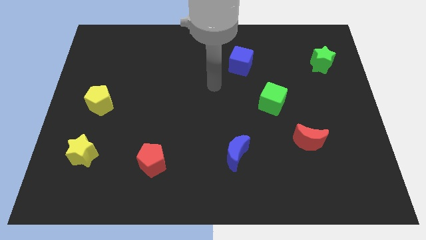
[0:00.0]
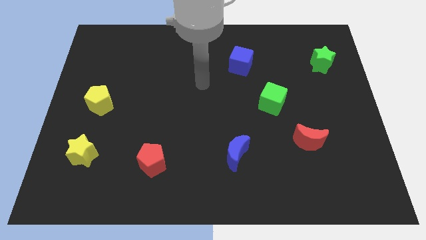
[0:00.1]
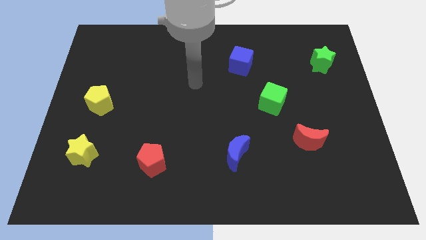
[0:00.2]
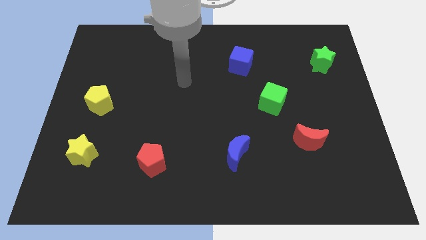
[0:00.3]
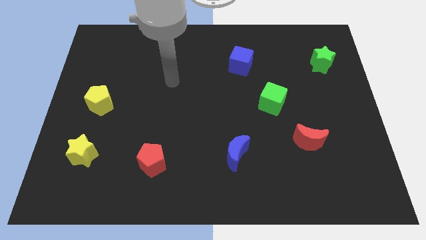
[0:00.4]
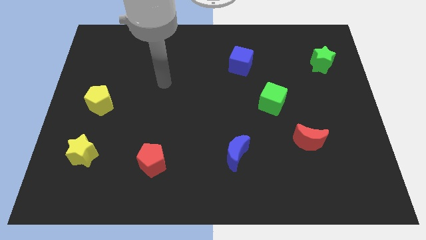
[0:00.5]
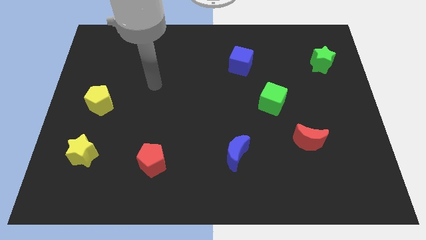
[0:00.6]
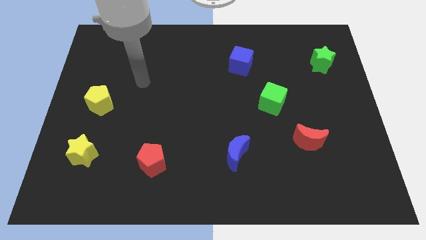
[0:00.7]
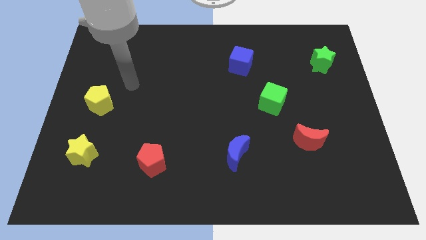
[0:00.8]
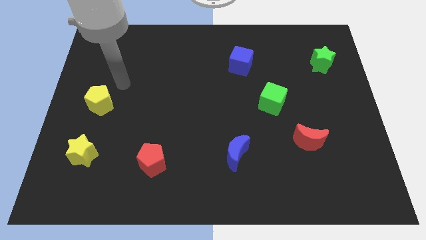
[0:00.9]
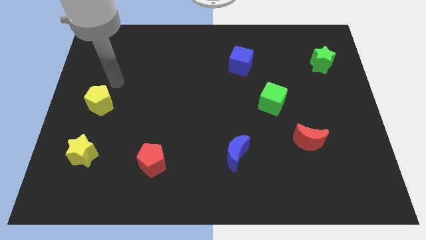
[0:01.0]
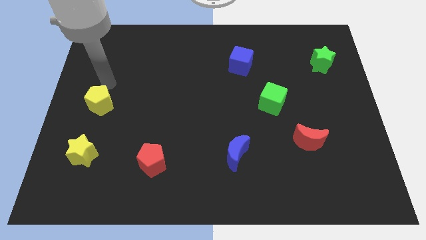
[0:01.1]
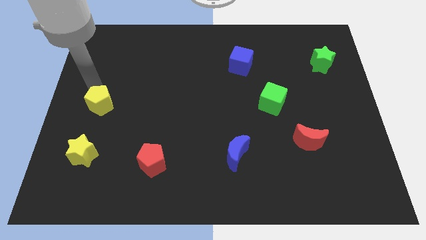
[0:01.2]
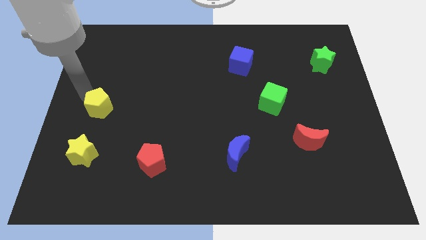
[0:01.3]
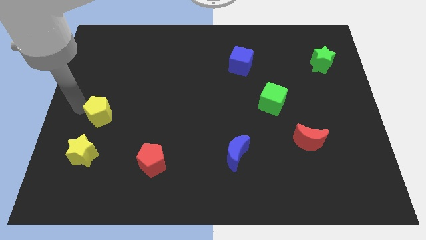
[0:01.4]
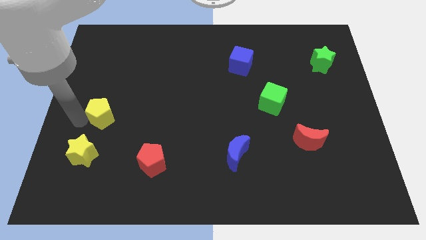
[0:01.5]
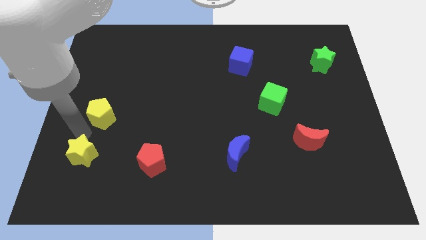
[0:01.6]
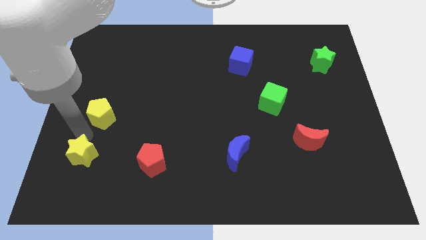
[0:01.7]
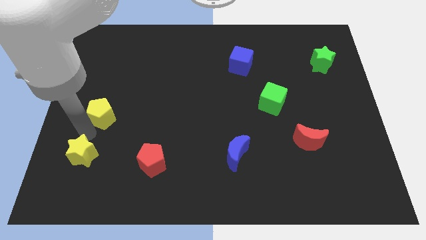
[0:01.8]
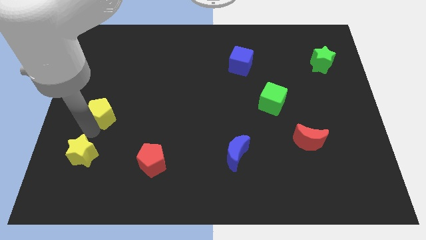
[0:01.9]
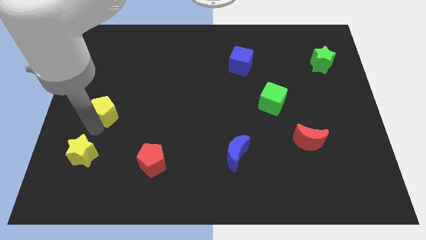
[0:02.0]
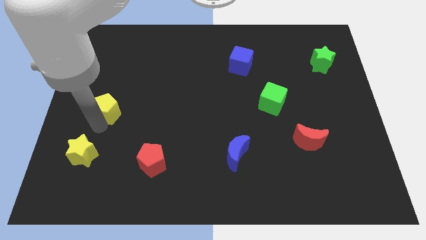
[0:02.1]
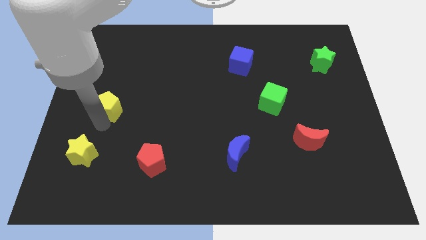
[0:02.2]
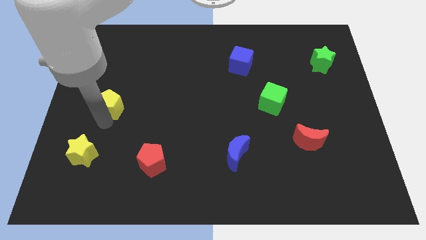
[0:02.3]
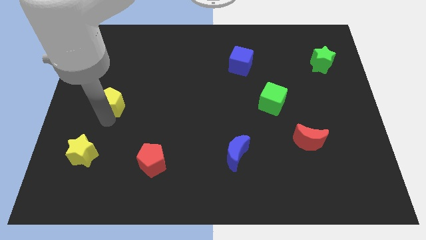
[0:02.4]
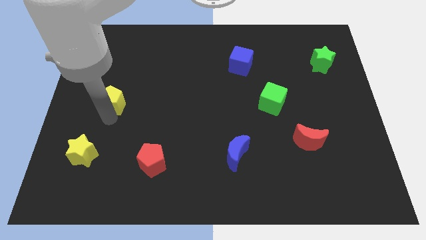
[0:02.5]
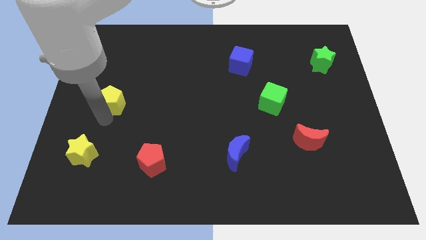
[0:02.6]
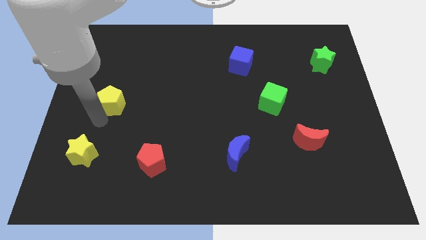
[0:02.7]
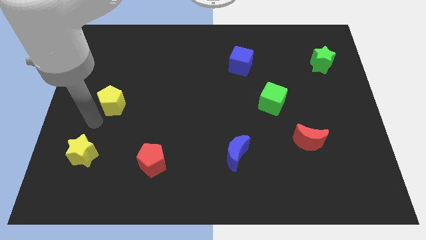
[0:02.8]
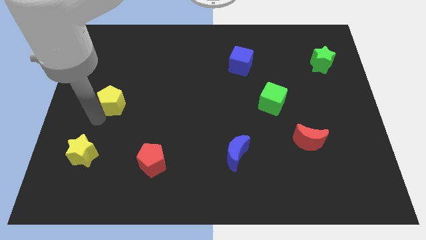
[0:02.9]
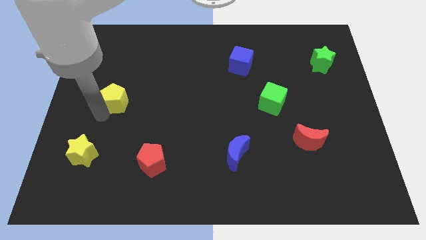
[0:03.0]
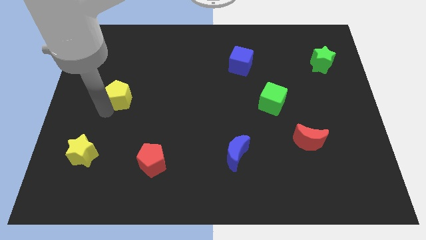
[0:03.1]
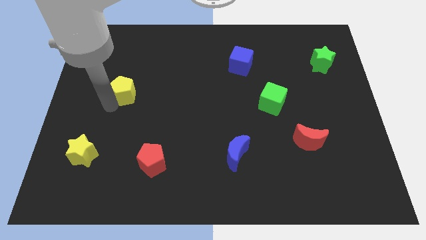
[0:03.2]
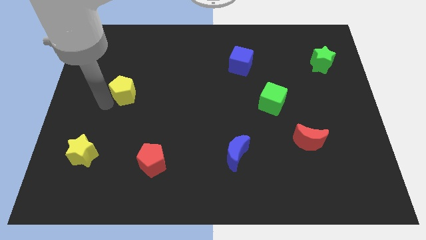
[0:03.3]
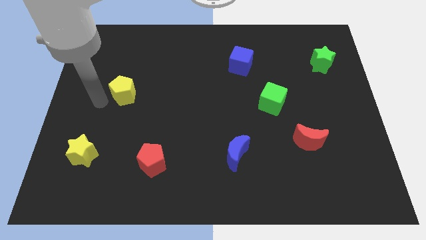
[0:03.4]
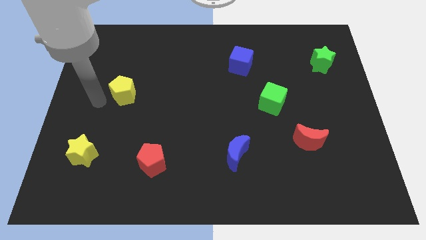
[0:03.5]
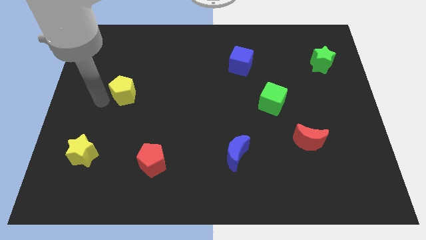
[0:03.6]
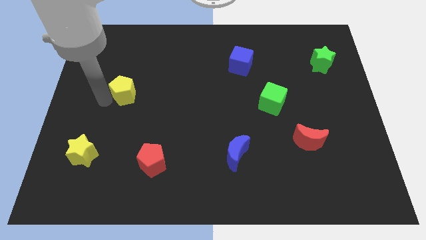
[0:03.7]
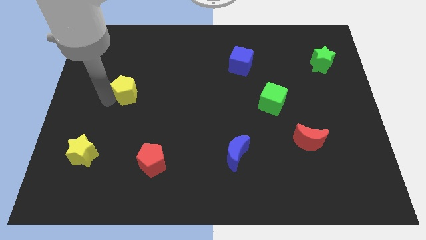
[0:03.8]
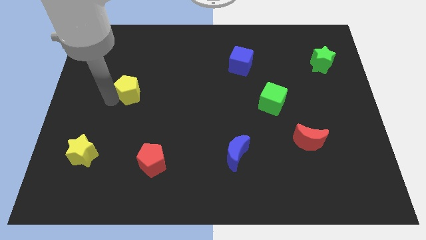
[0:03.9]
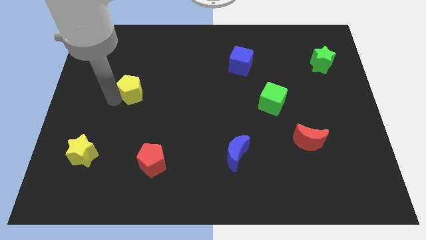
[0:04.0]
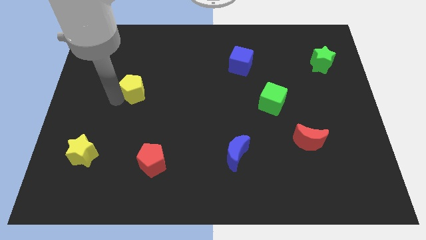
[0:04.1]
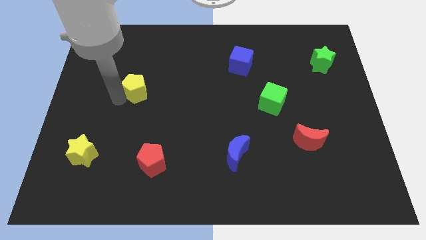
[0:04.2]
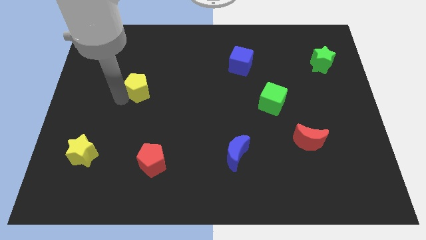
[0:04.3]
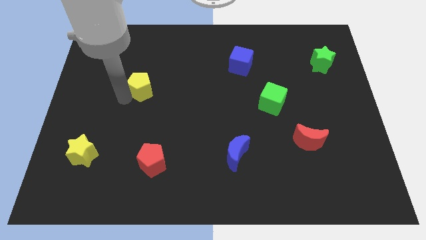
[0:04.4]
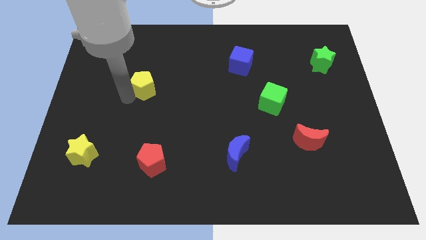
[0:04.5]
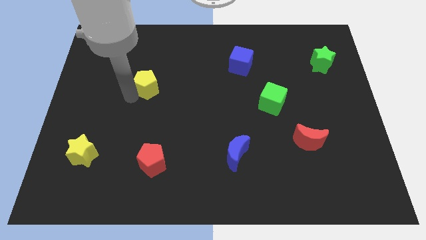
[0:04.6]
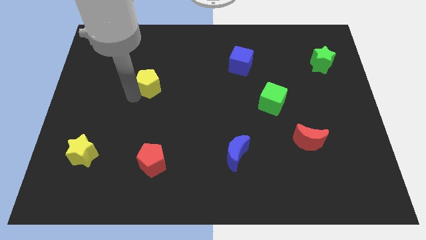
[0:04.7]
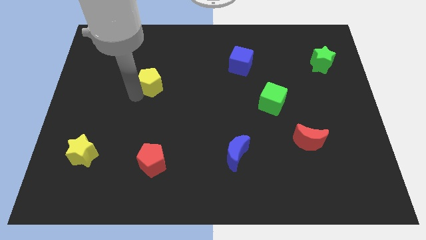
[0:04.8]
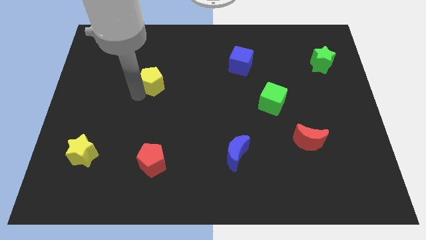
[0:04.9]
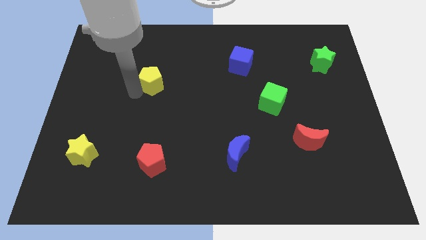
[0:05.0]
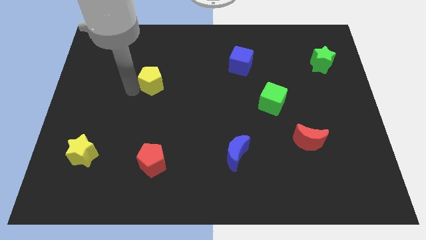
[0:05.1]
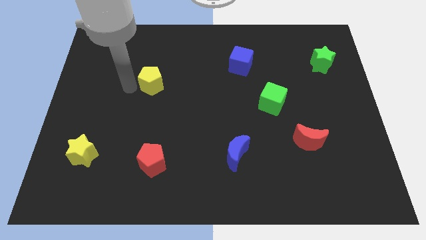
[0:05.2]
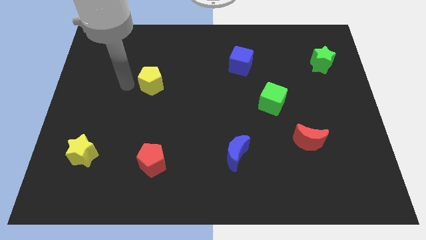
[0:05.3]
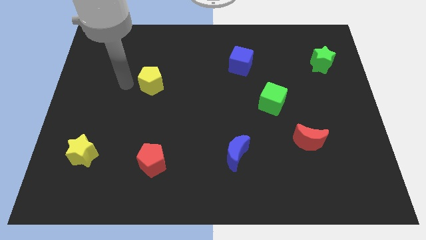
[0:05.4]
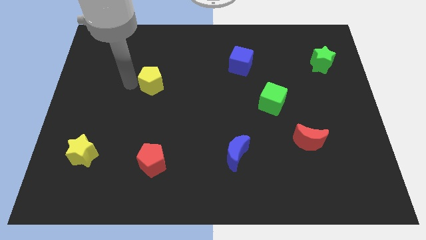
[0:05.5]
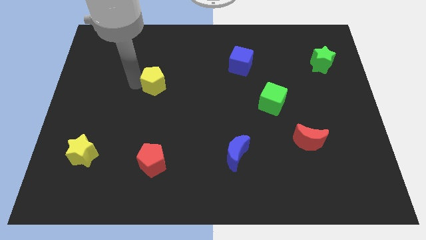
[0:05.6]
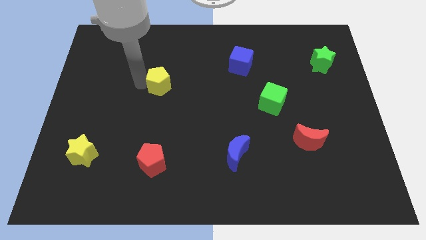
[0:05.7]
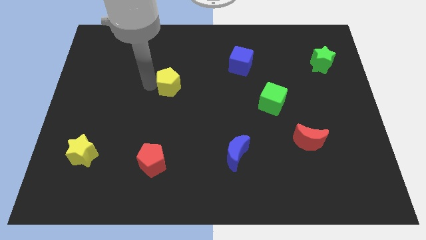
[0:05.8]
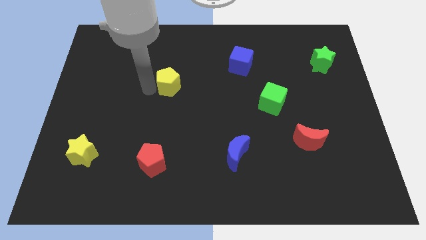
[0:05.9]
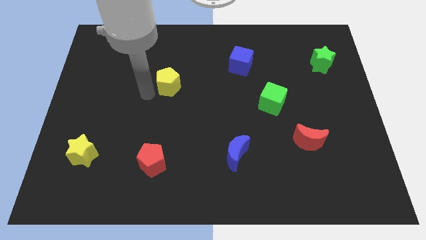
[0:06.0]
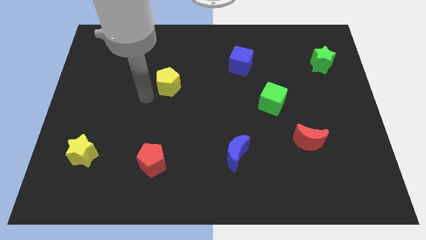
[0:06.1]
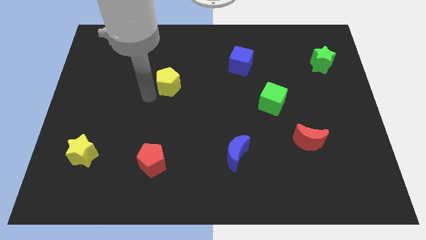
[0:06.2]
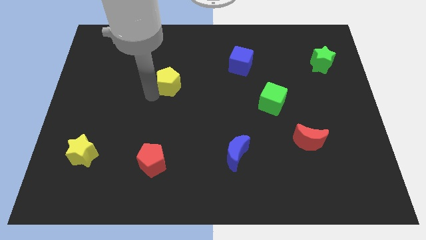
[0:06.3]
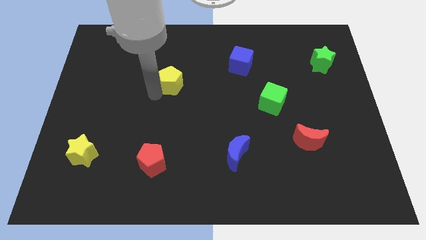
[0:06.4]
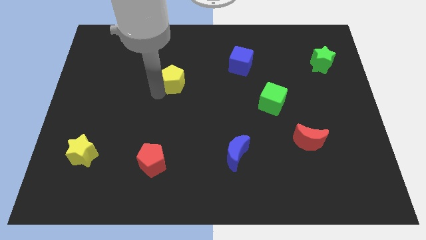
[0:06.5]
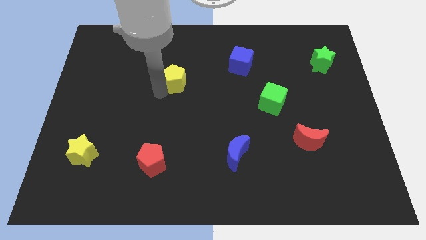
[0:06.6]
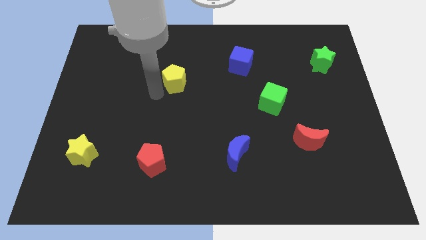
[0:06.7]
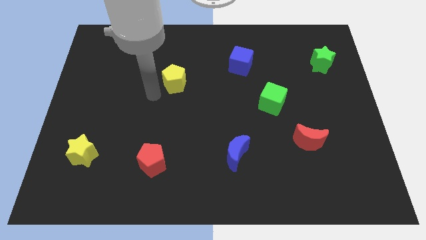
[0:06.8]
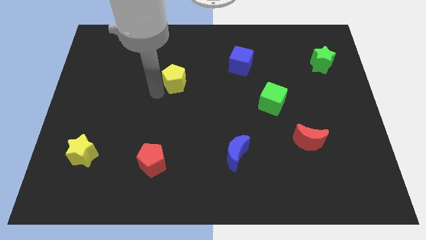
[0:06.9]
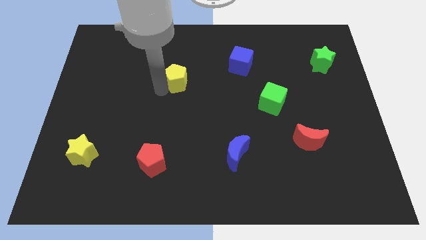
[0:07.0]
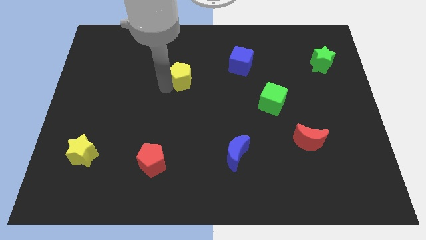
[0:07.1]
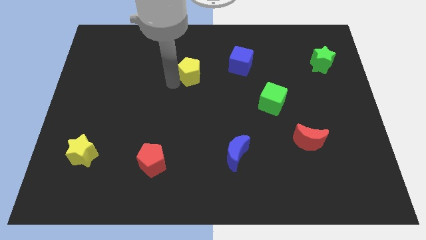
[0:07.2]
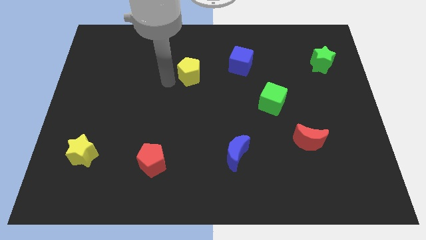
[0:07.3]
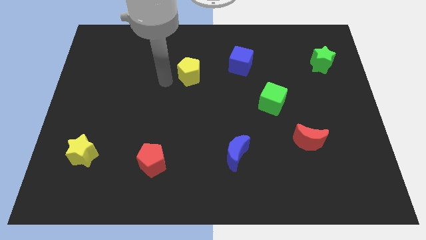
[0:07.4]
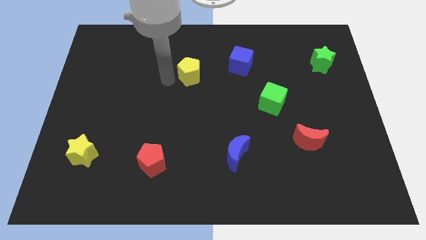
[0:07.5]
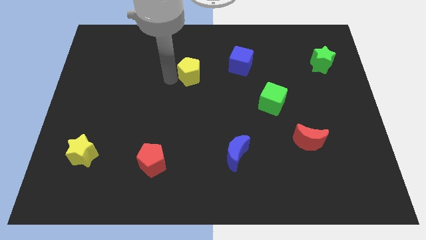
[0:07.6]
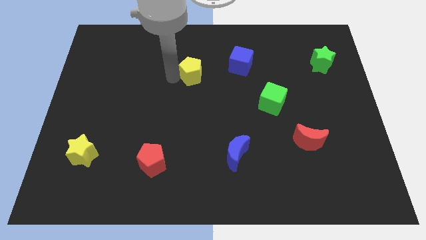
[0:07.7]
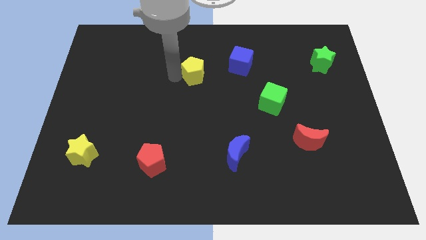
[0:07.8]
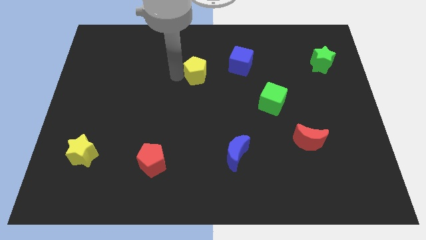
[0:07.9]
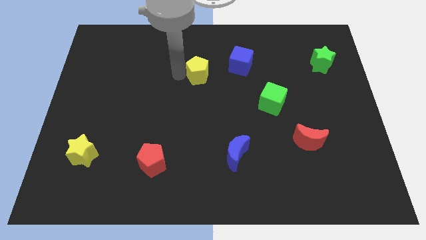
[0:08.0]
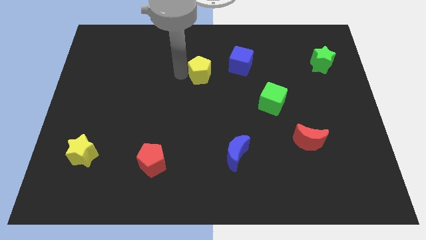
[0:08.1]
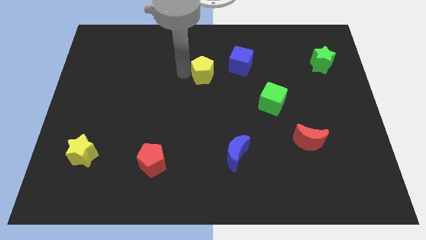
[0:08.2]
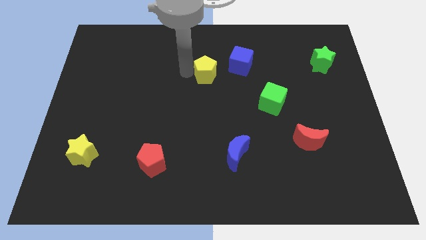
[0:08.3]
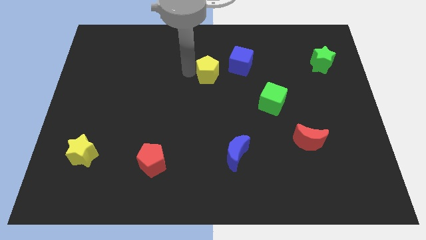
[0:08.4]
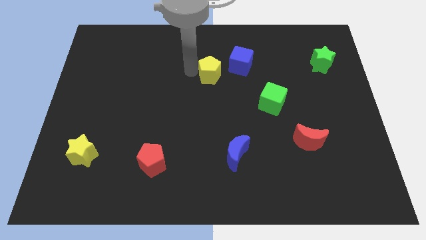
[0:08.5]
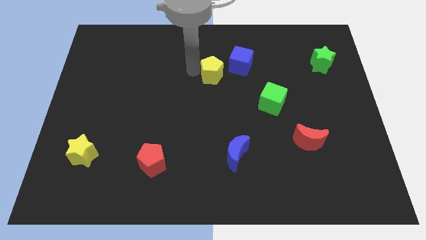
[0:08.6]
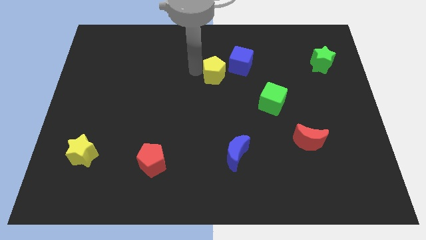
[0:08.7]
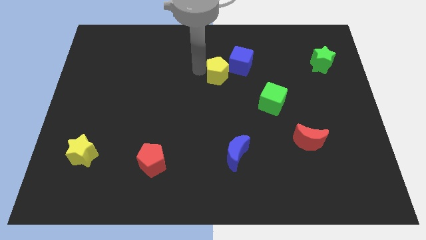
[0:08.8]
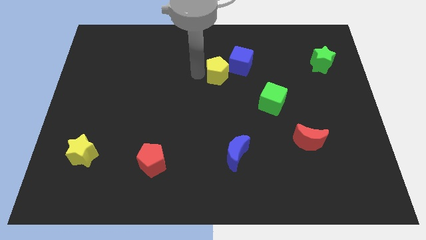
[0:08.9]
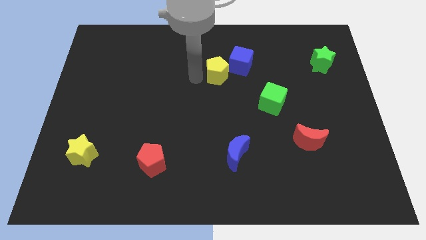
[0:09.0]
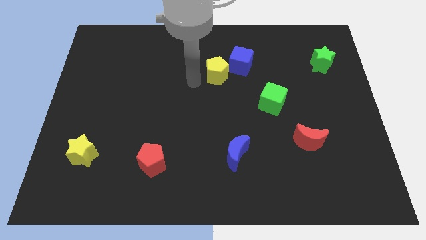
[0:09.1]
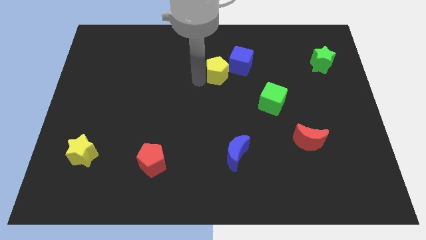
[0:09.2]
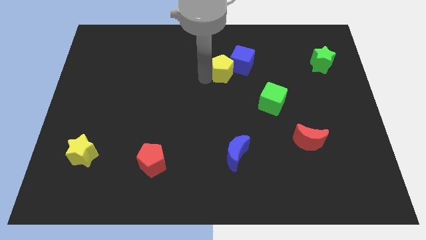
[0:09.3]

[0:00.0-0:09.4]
slide the yellow pentagon towards the blue cube
